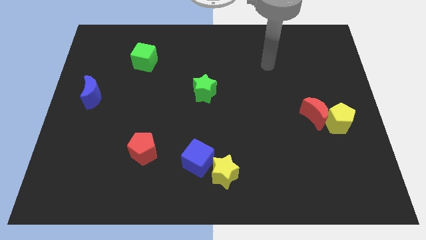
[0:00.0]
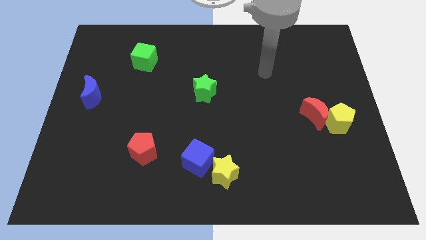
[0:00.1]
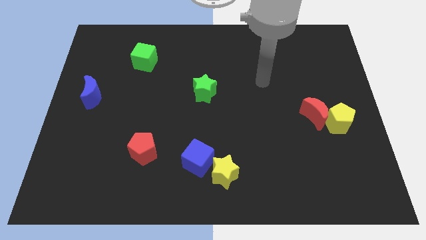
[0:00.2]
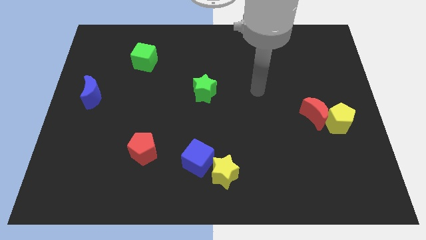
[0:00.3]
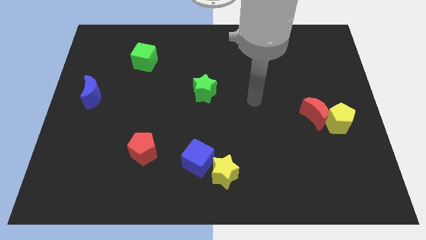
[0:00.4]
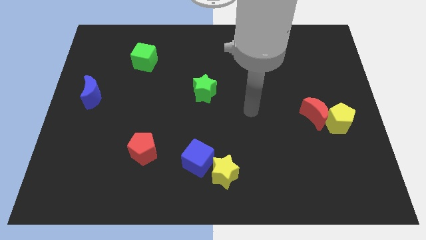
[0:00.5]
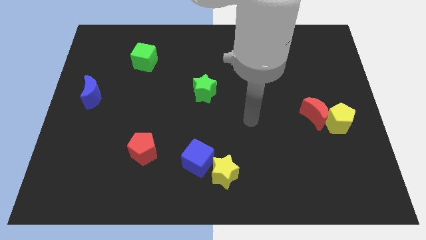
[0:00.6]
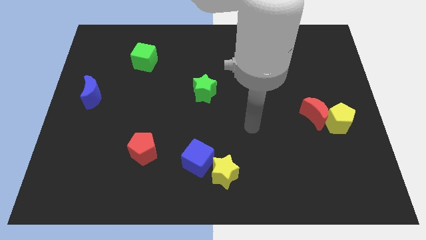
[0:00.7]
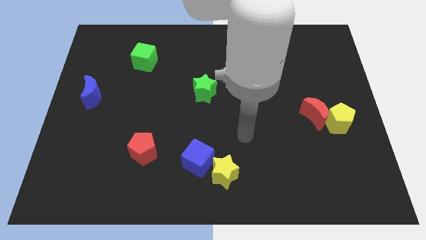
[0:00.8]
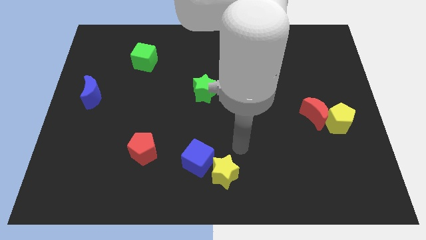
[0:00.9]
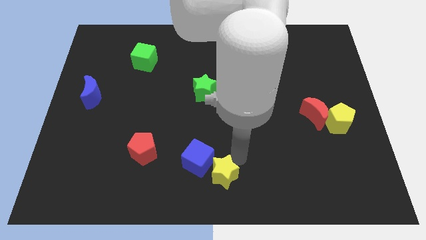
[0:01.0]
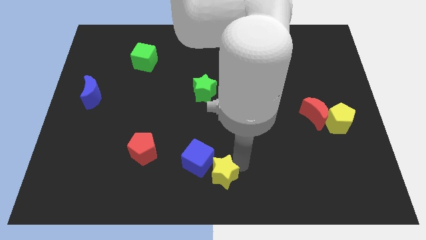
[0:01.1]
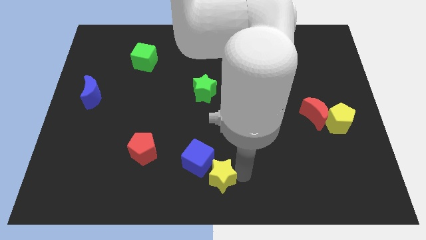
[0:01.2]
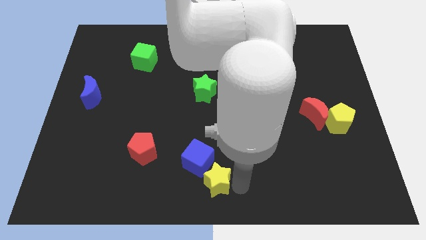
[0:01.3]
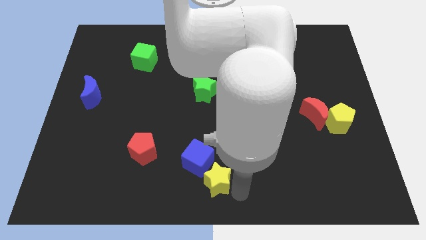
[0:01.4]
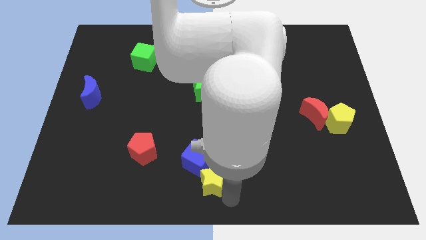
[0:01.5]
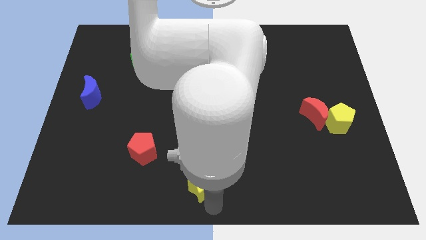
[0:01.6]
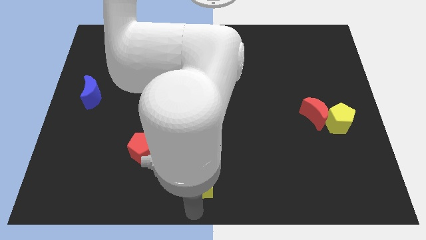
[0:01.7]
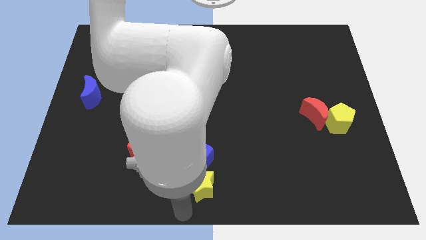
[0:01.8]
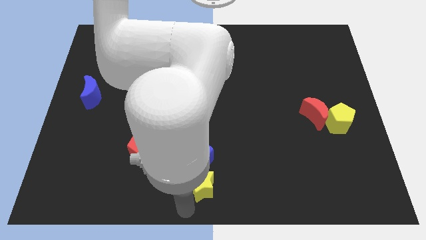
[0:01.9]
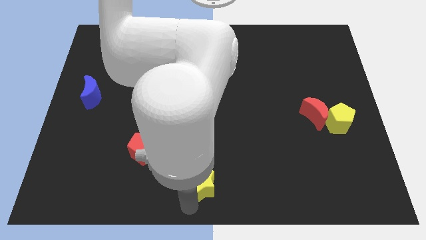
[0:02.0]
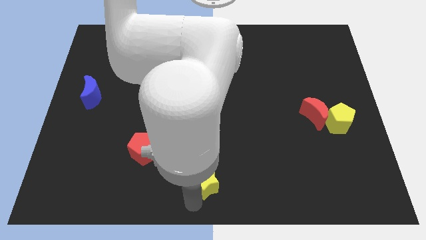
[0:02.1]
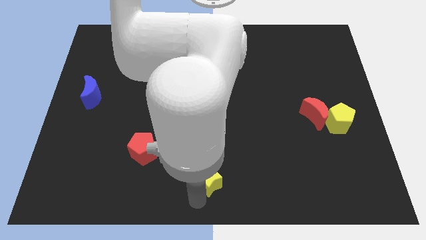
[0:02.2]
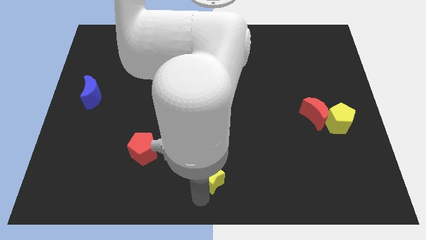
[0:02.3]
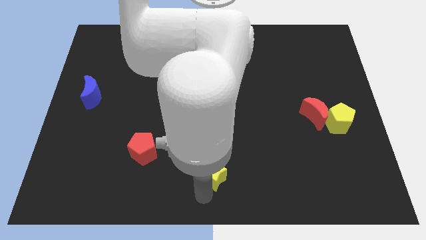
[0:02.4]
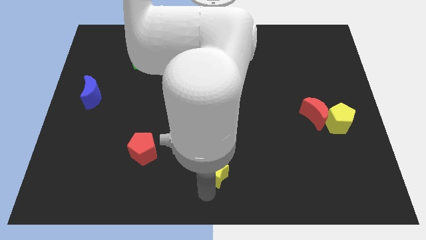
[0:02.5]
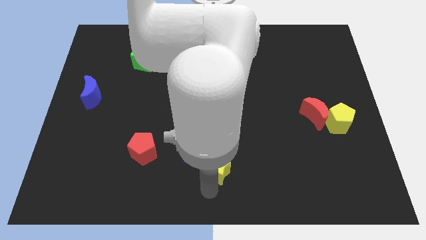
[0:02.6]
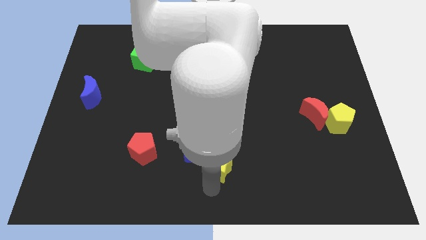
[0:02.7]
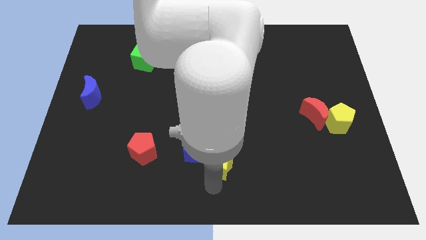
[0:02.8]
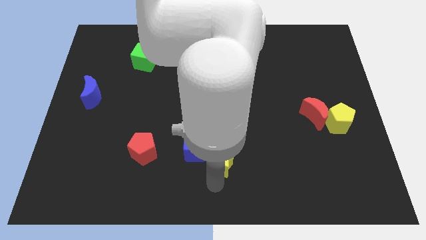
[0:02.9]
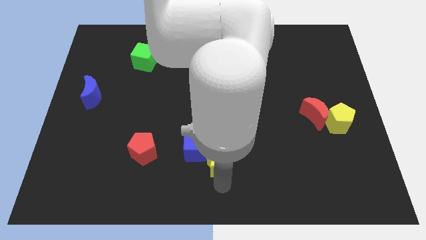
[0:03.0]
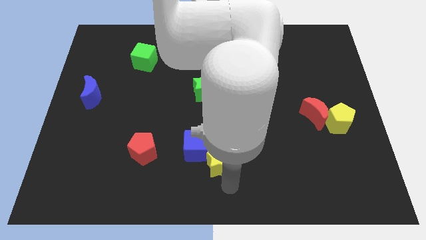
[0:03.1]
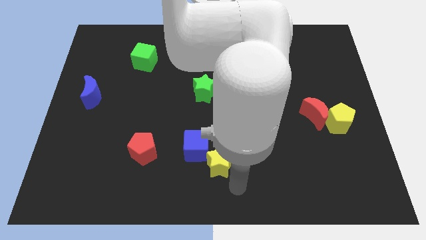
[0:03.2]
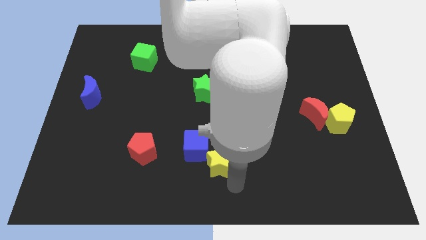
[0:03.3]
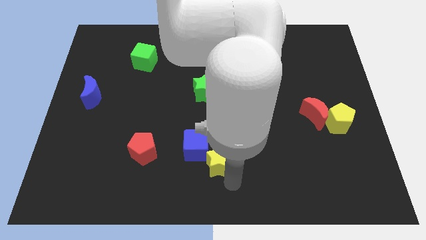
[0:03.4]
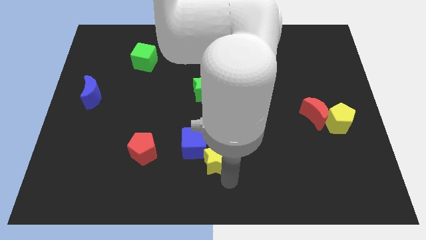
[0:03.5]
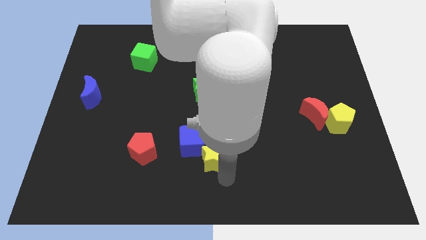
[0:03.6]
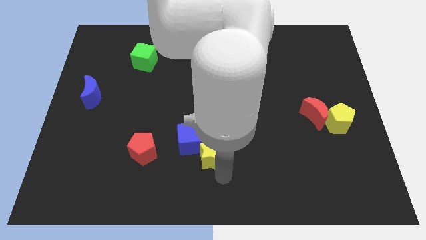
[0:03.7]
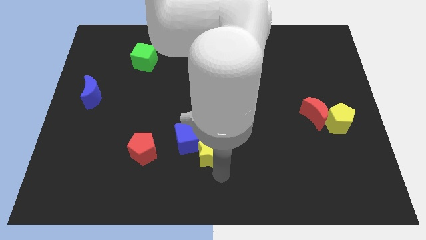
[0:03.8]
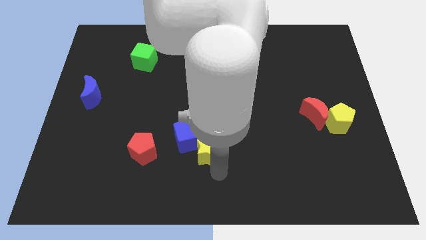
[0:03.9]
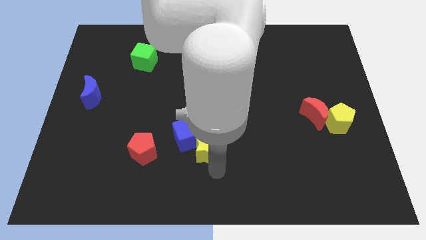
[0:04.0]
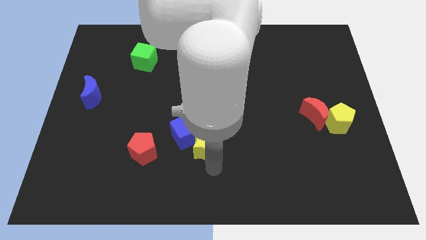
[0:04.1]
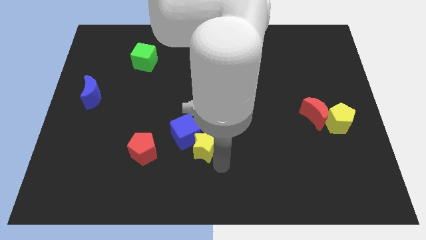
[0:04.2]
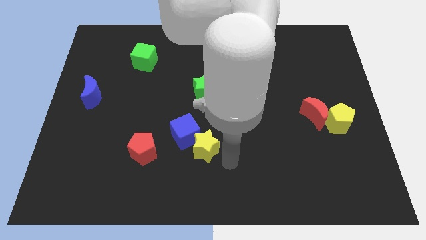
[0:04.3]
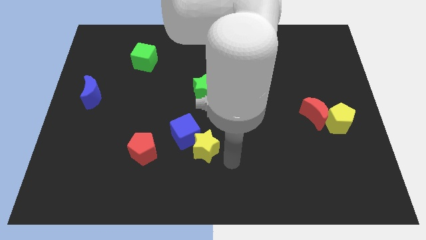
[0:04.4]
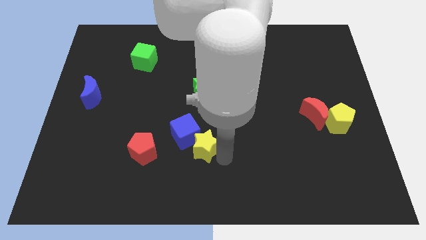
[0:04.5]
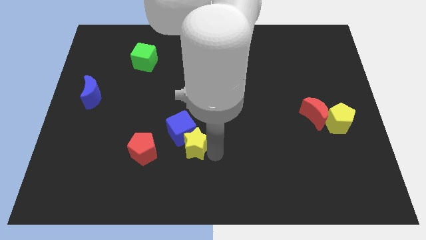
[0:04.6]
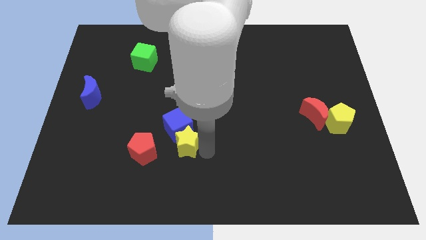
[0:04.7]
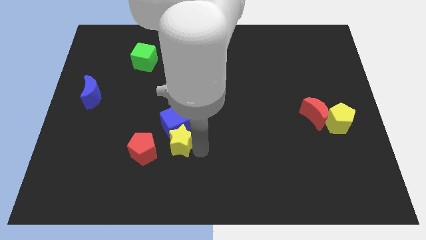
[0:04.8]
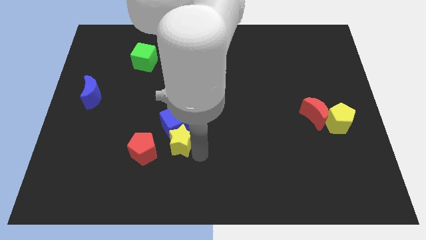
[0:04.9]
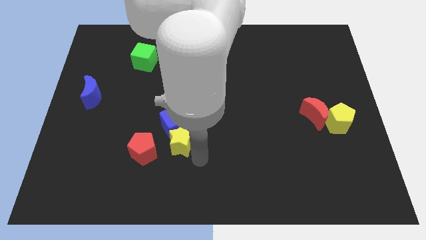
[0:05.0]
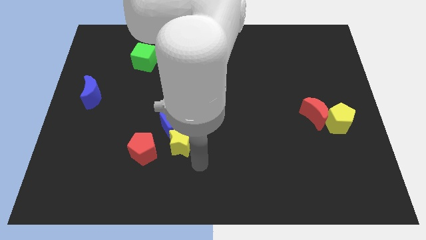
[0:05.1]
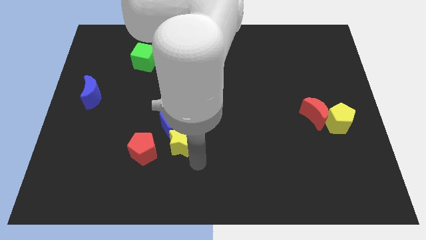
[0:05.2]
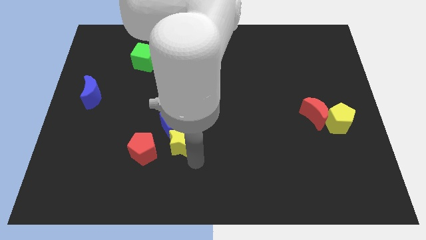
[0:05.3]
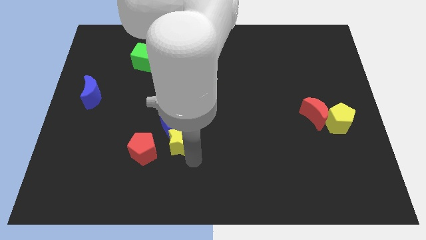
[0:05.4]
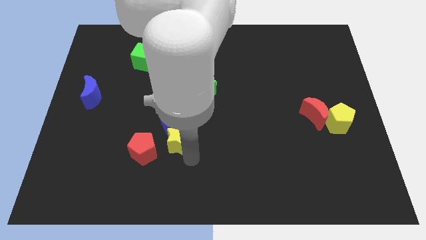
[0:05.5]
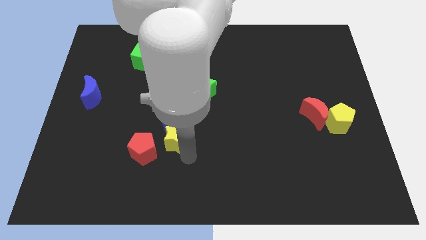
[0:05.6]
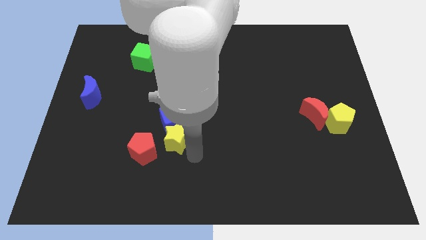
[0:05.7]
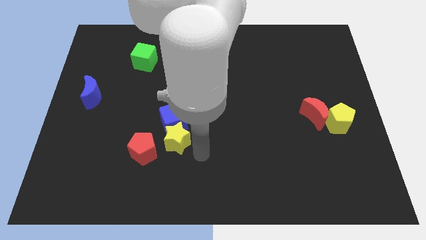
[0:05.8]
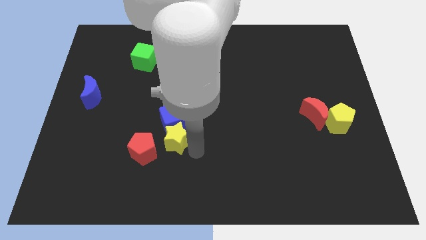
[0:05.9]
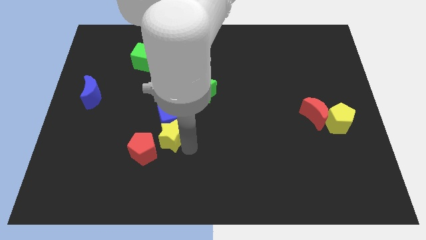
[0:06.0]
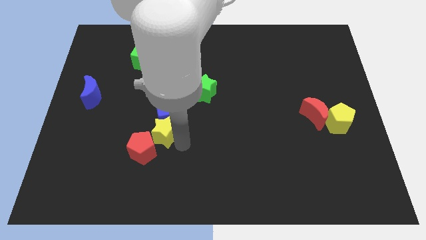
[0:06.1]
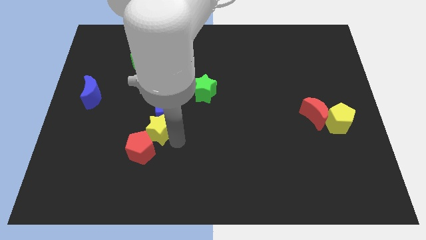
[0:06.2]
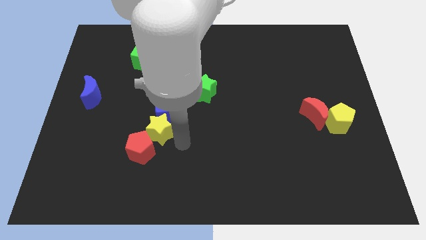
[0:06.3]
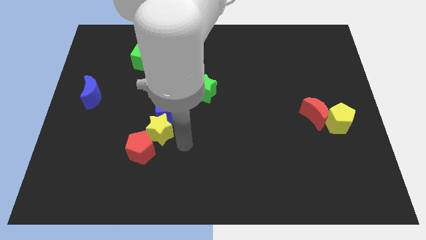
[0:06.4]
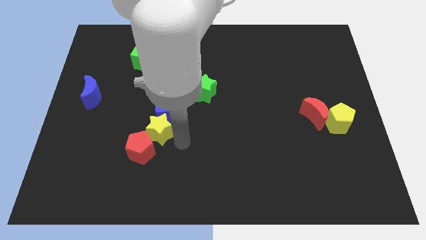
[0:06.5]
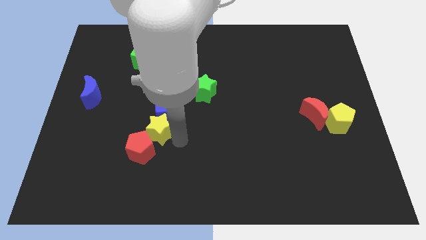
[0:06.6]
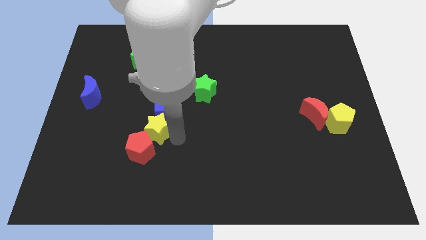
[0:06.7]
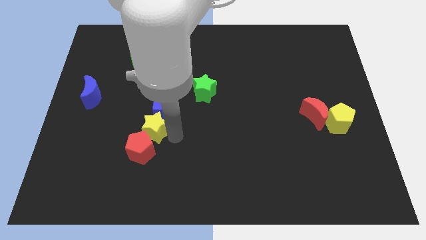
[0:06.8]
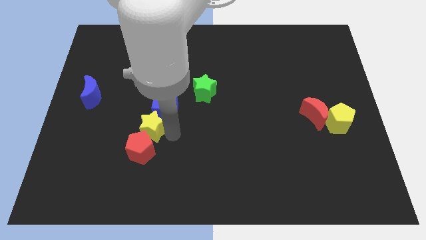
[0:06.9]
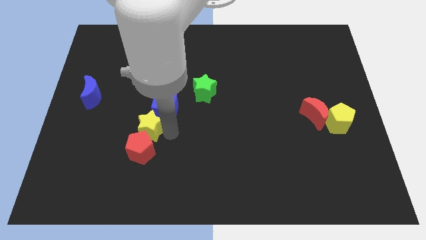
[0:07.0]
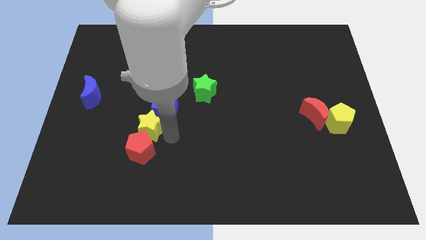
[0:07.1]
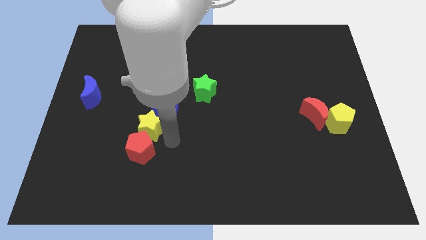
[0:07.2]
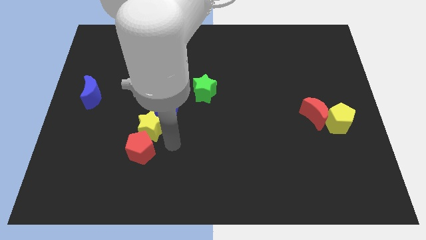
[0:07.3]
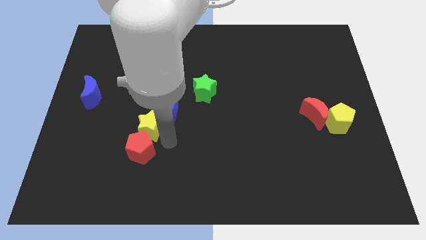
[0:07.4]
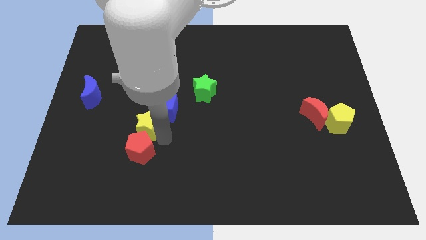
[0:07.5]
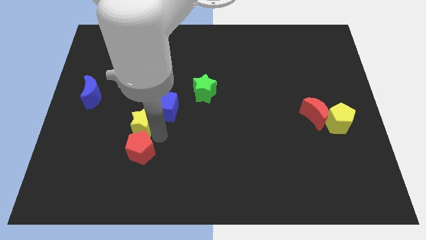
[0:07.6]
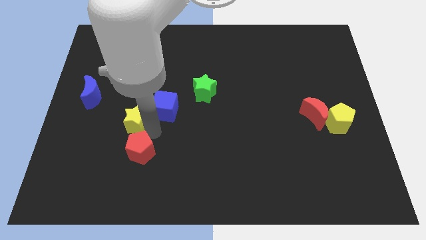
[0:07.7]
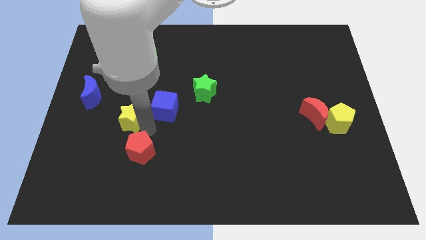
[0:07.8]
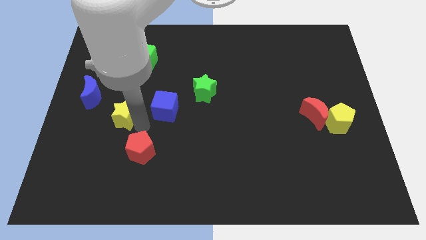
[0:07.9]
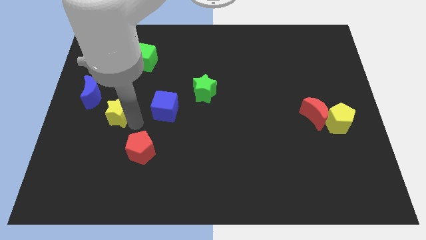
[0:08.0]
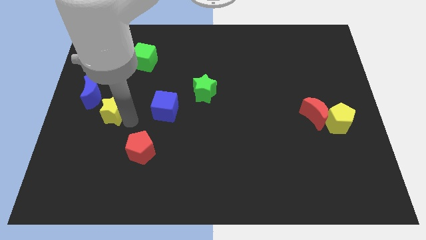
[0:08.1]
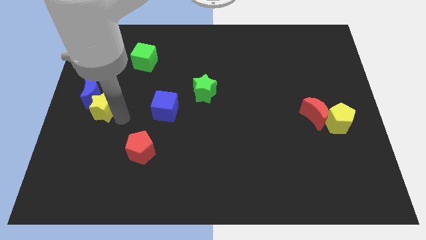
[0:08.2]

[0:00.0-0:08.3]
put the yellow star to the blue moon
